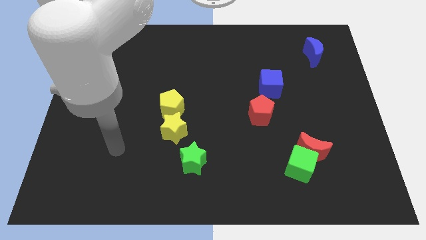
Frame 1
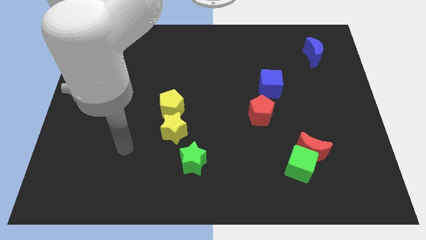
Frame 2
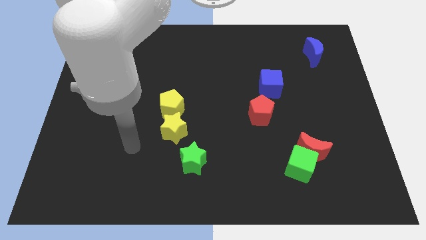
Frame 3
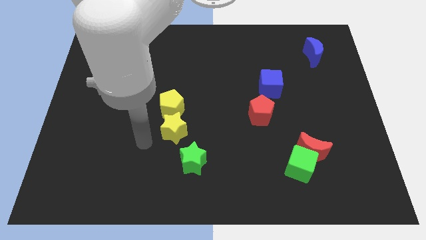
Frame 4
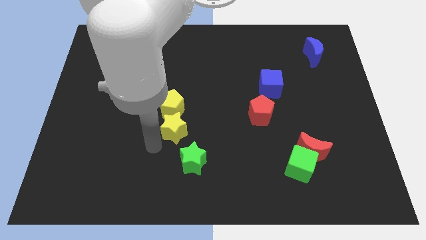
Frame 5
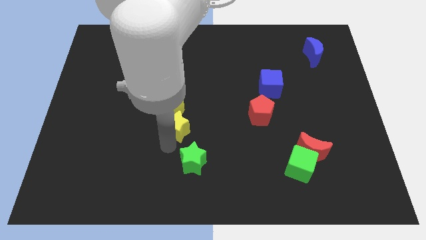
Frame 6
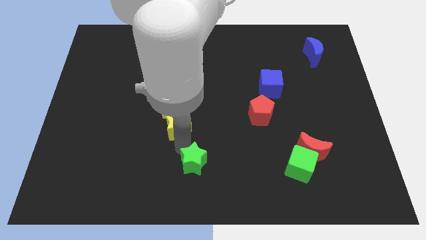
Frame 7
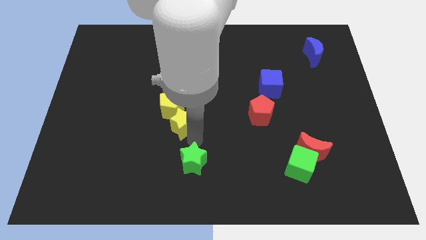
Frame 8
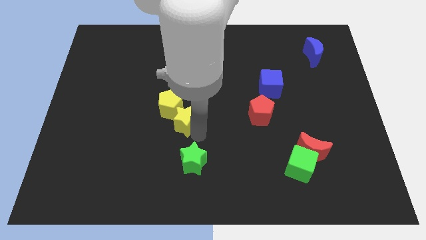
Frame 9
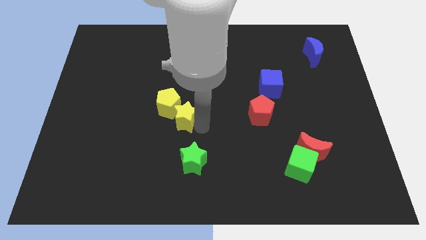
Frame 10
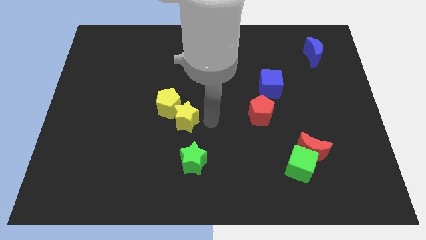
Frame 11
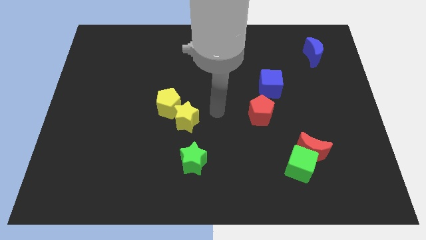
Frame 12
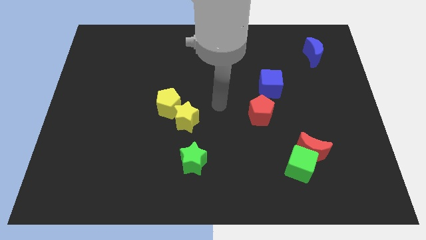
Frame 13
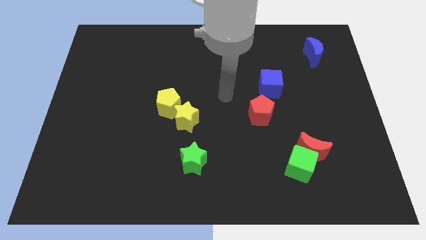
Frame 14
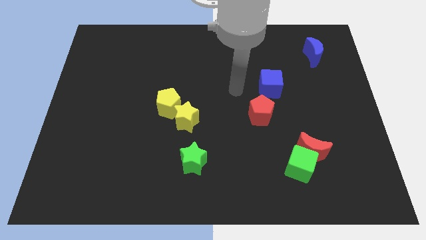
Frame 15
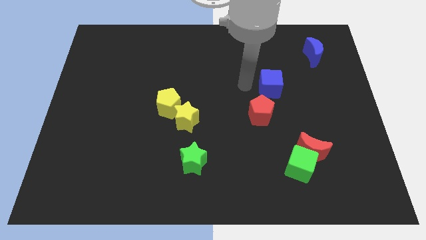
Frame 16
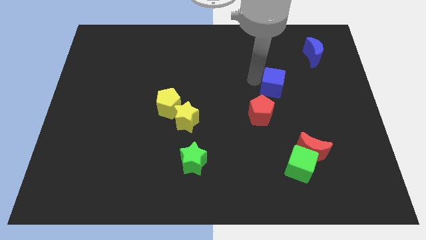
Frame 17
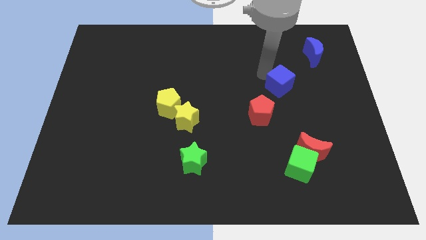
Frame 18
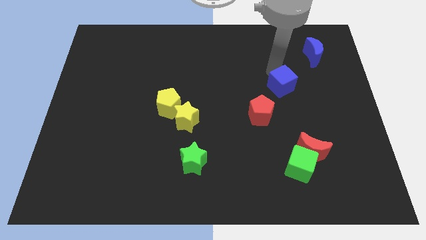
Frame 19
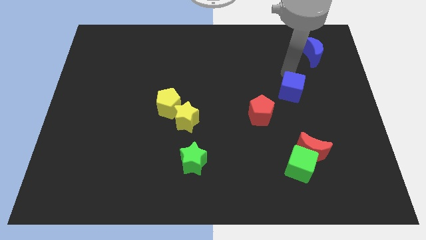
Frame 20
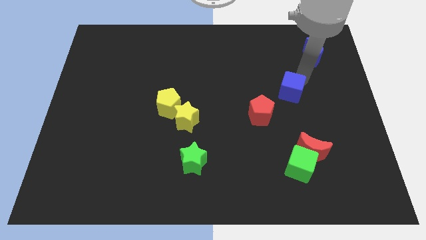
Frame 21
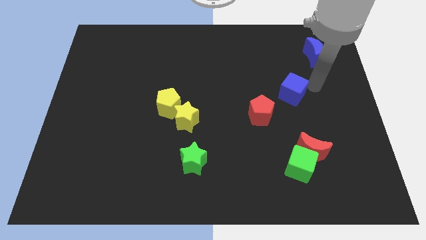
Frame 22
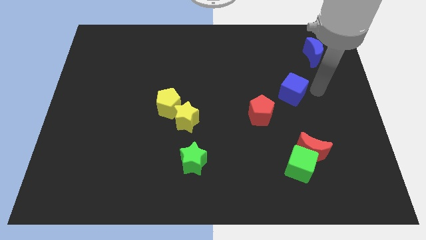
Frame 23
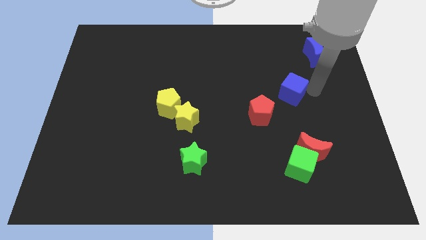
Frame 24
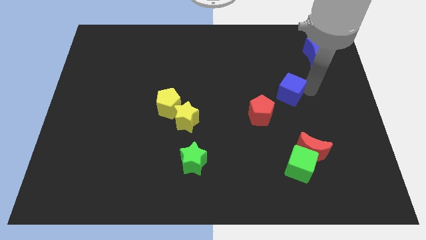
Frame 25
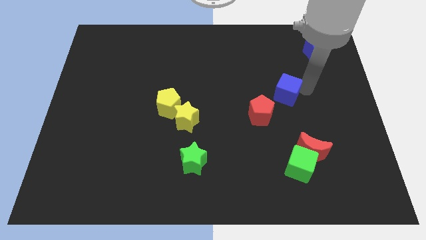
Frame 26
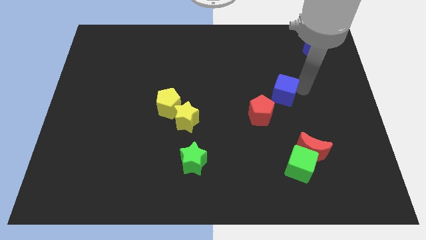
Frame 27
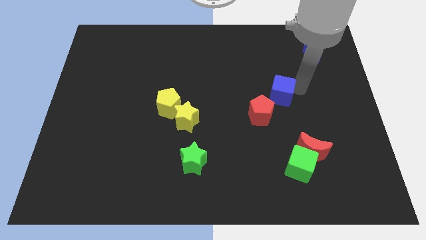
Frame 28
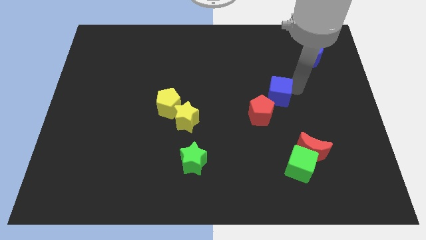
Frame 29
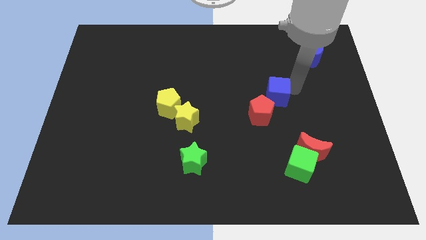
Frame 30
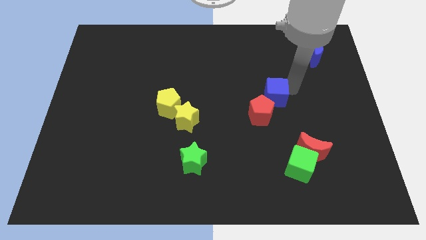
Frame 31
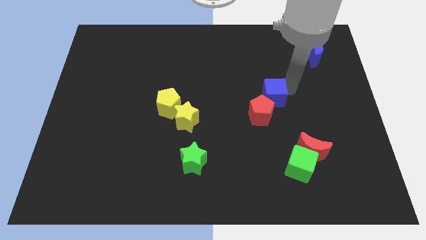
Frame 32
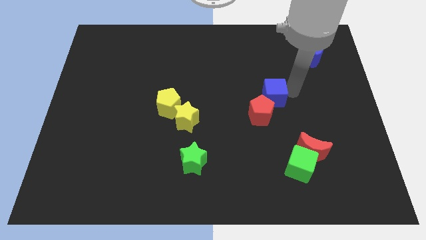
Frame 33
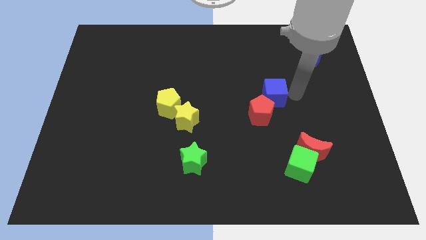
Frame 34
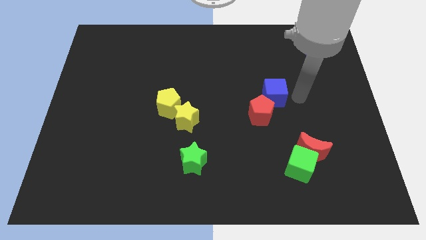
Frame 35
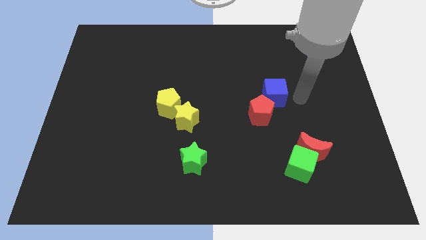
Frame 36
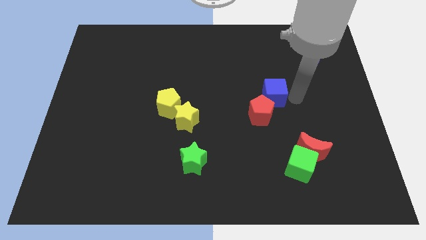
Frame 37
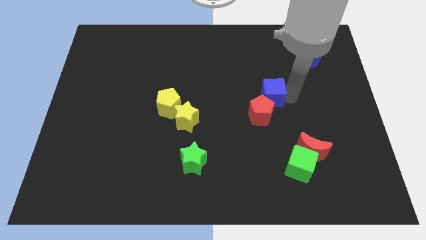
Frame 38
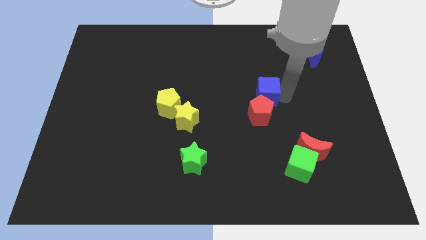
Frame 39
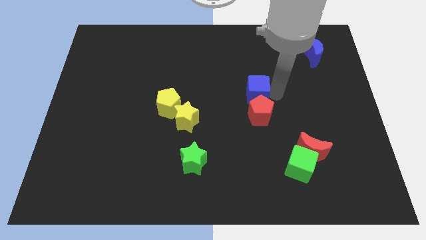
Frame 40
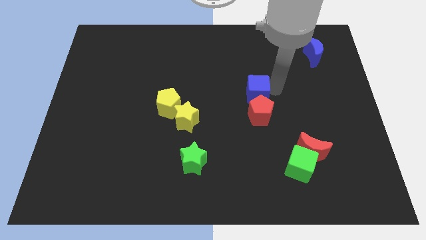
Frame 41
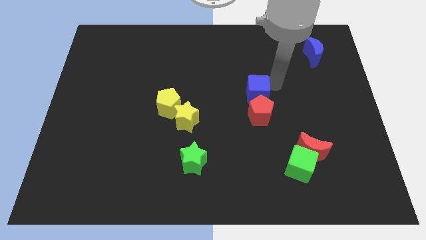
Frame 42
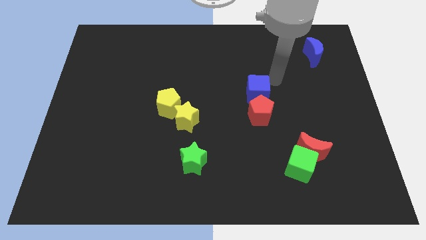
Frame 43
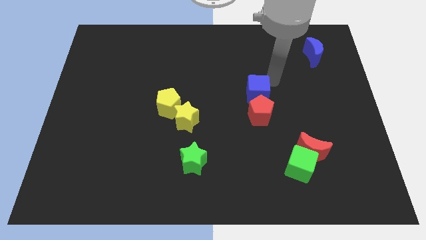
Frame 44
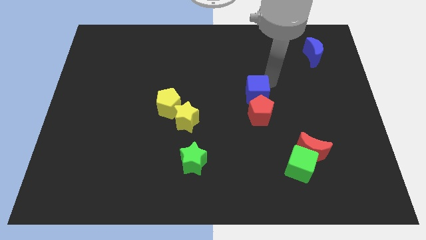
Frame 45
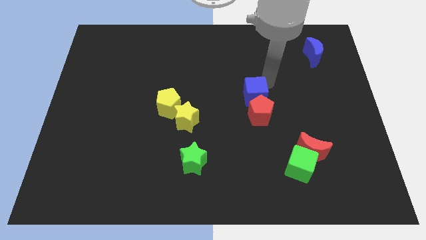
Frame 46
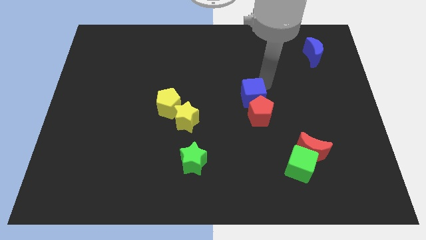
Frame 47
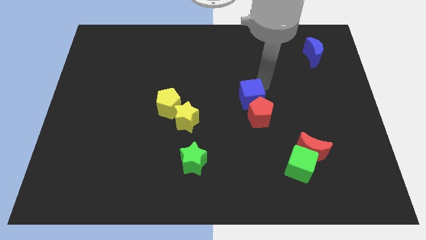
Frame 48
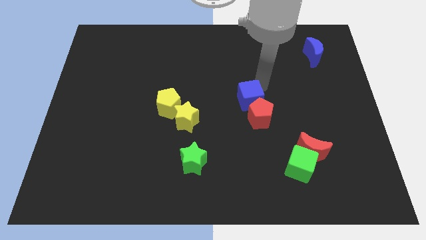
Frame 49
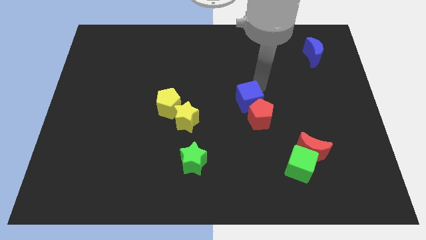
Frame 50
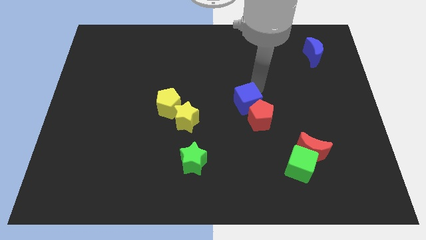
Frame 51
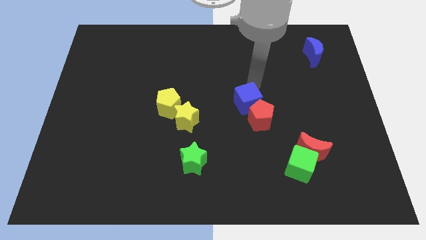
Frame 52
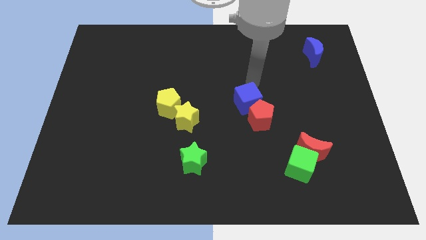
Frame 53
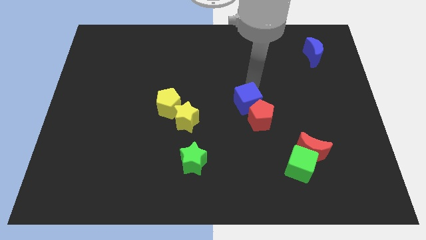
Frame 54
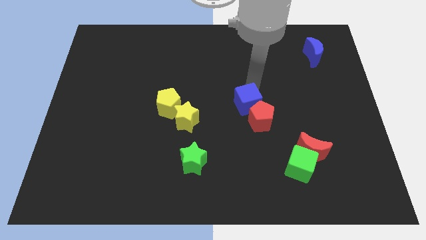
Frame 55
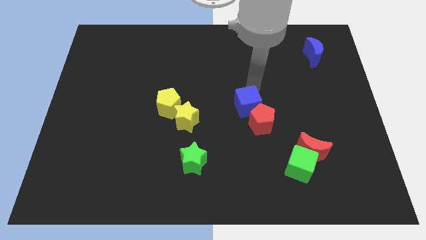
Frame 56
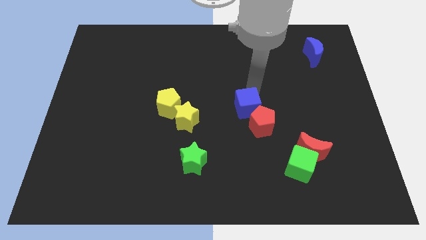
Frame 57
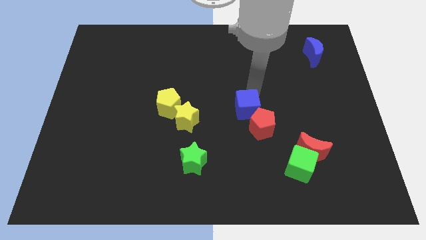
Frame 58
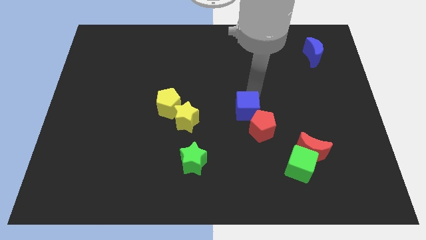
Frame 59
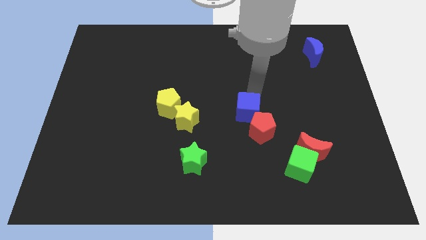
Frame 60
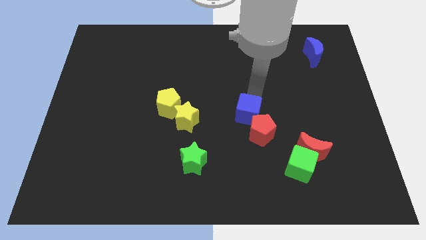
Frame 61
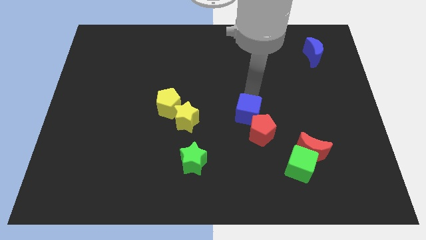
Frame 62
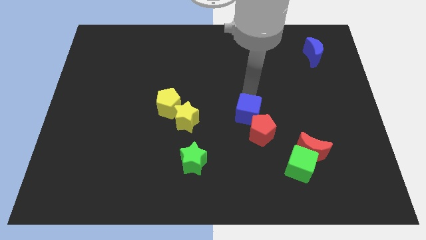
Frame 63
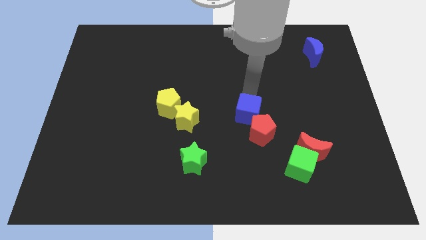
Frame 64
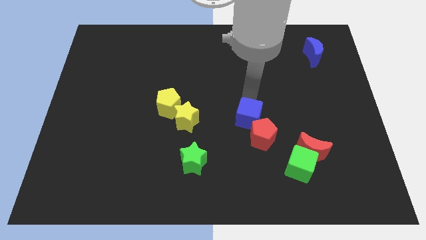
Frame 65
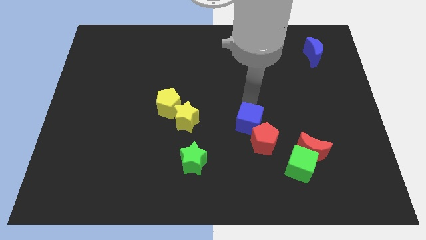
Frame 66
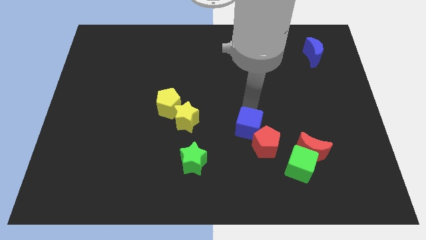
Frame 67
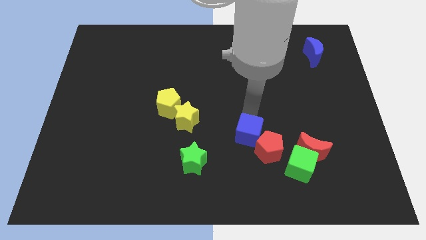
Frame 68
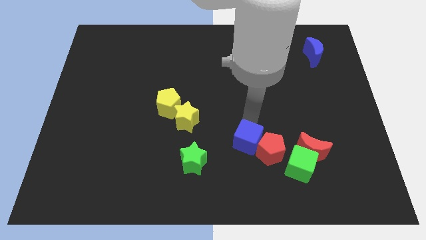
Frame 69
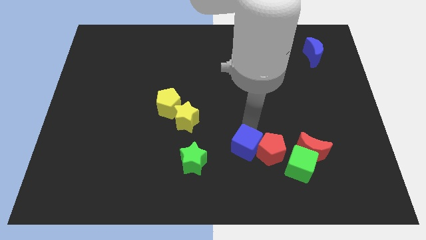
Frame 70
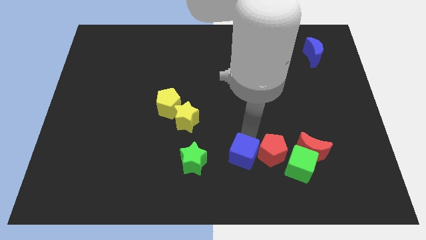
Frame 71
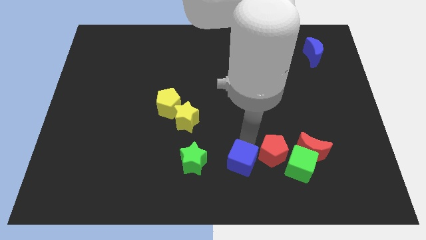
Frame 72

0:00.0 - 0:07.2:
slide the blue cube to the bottom side

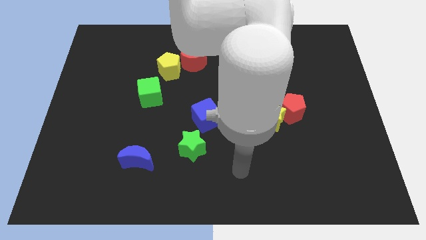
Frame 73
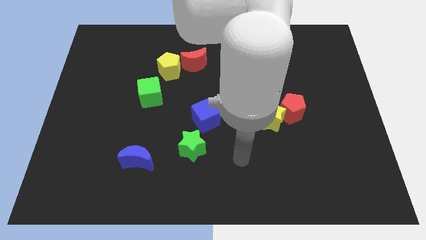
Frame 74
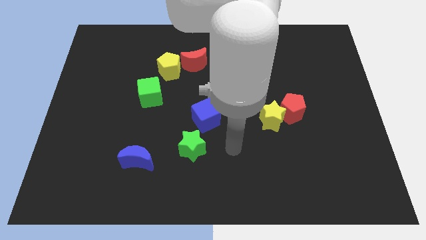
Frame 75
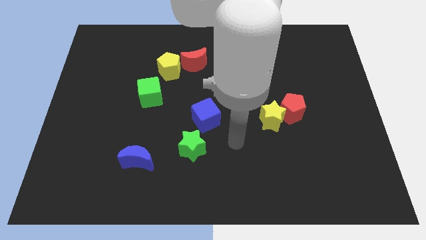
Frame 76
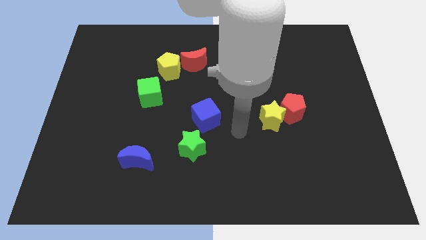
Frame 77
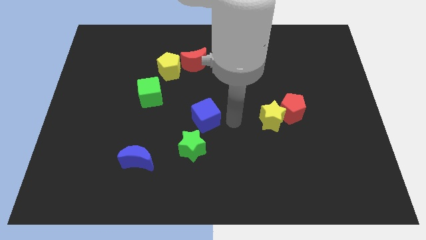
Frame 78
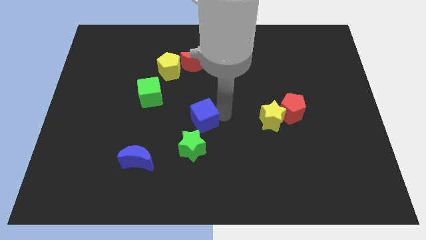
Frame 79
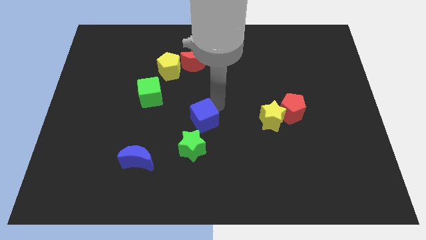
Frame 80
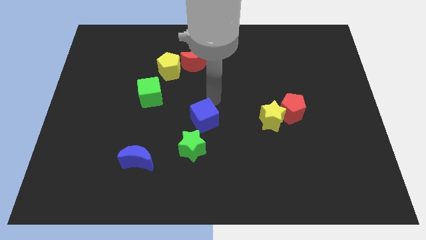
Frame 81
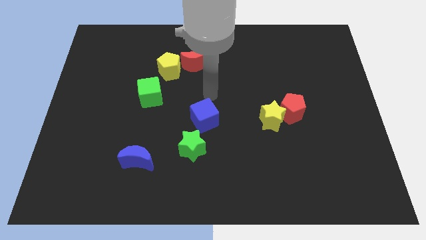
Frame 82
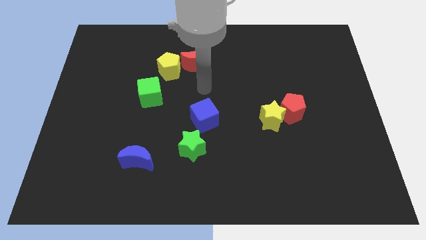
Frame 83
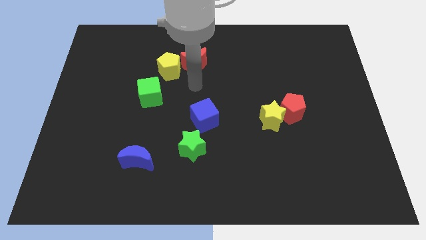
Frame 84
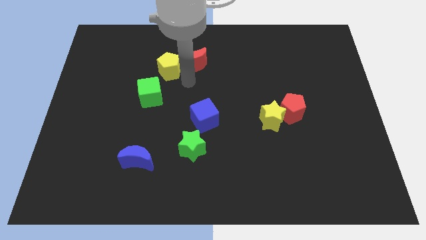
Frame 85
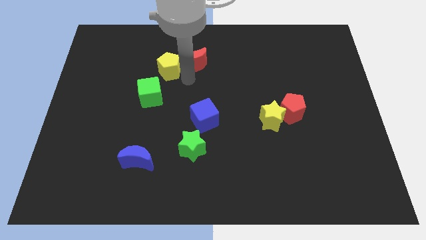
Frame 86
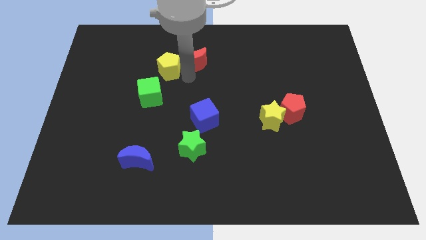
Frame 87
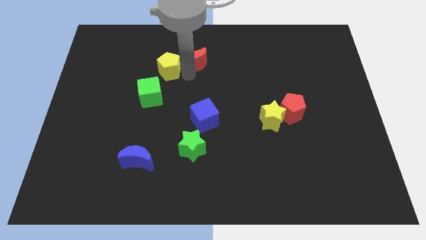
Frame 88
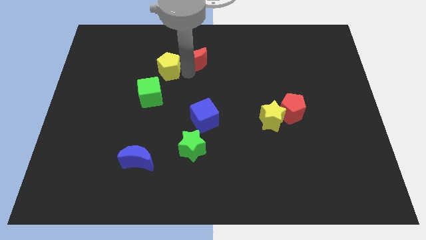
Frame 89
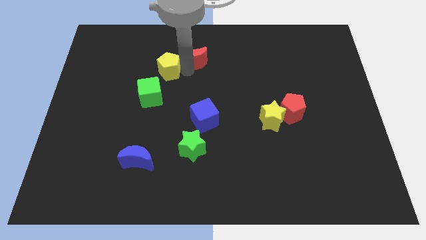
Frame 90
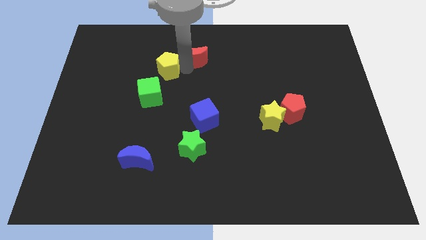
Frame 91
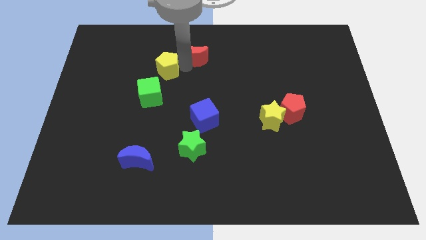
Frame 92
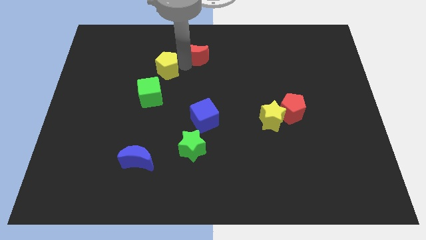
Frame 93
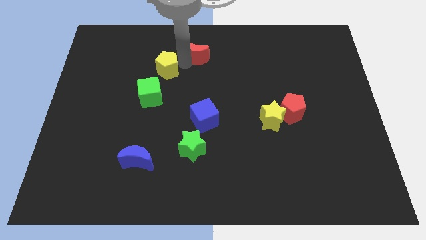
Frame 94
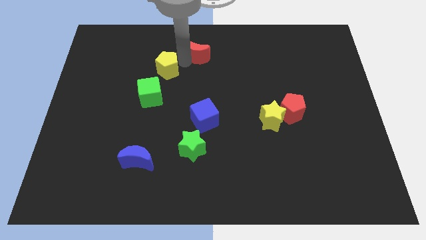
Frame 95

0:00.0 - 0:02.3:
push the red moon to the top
